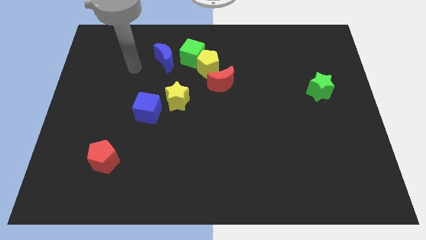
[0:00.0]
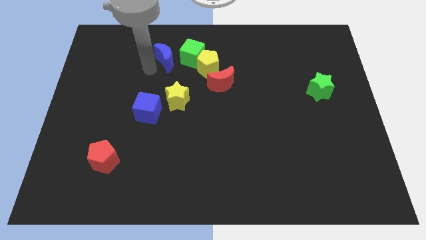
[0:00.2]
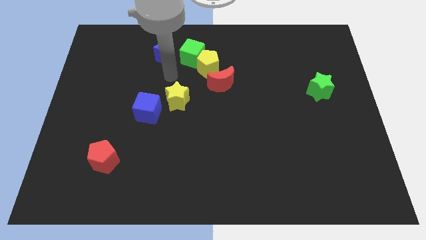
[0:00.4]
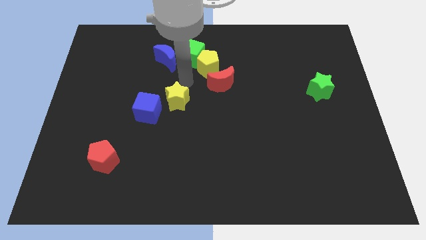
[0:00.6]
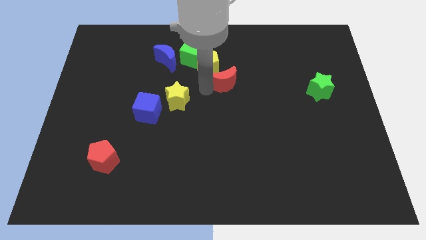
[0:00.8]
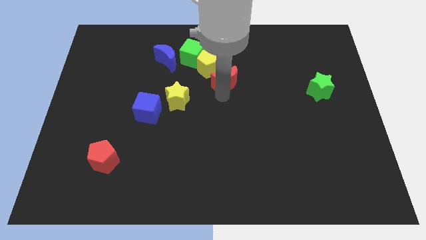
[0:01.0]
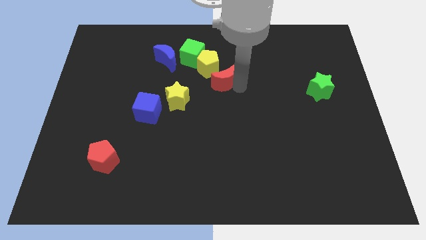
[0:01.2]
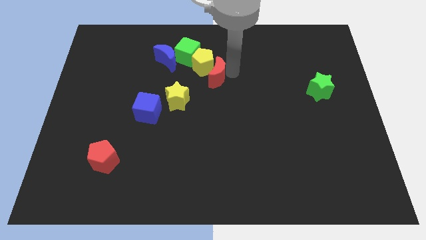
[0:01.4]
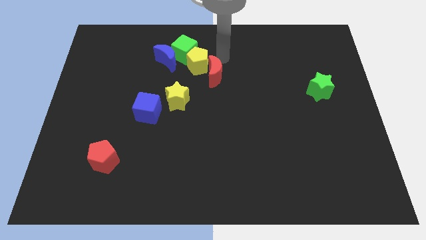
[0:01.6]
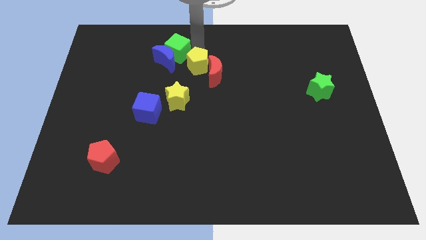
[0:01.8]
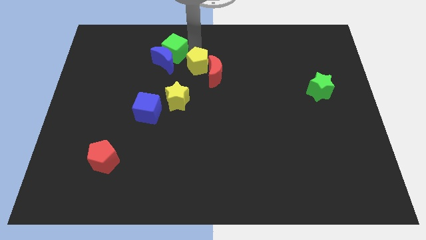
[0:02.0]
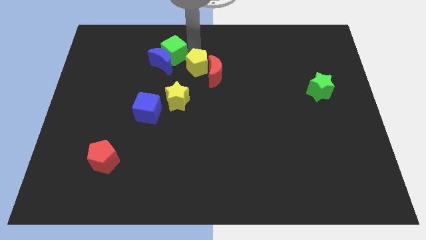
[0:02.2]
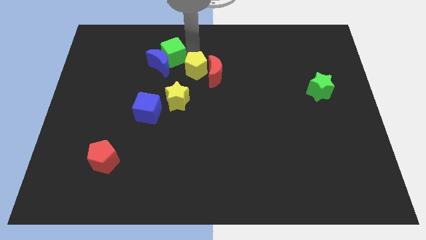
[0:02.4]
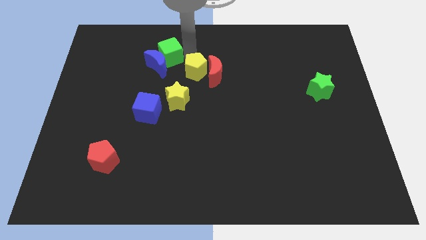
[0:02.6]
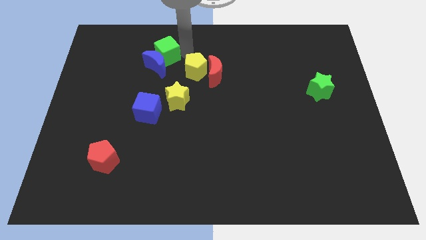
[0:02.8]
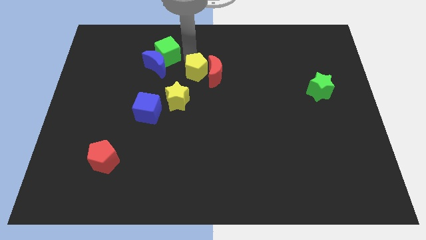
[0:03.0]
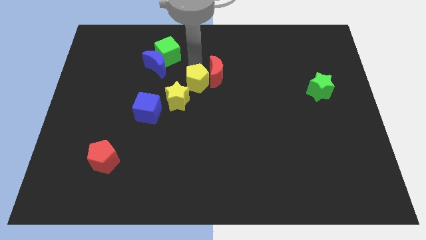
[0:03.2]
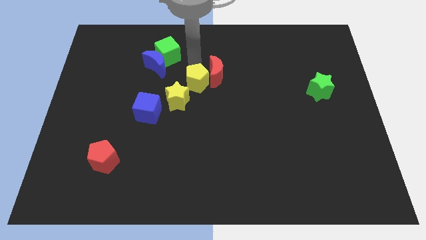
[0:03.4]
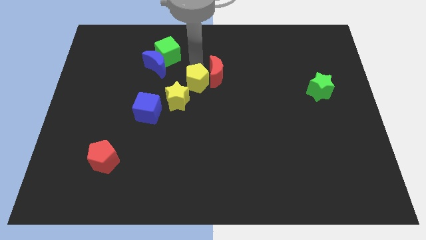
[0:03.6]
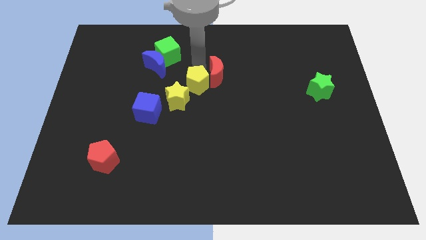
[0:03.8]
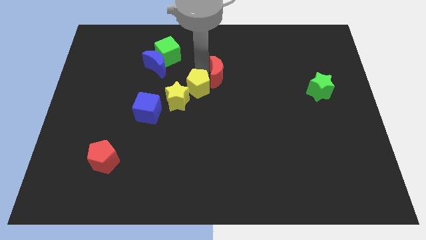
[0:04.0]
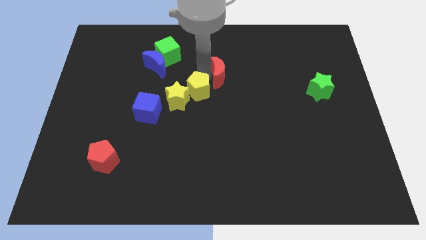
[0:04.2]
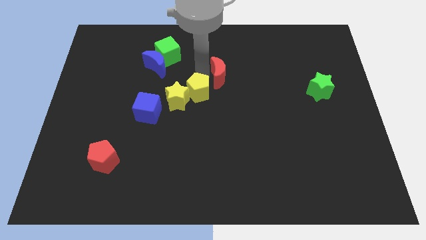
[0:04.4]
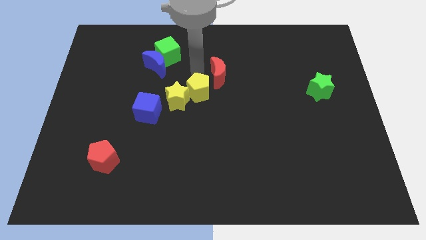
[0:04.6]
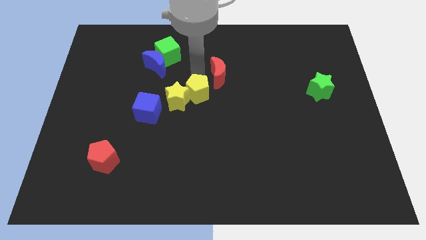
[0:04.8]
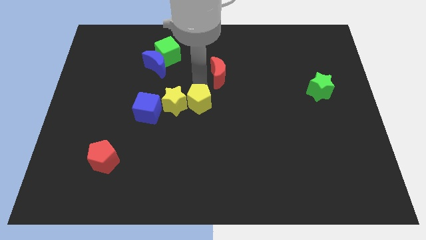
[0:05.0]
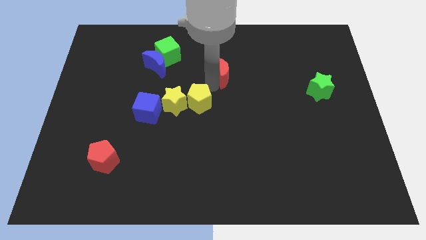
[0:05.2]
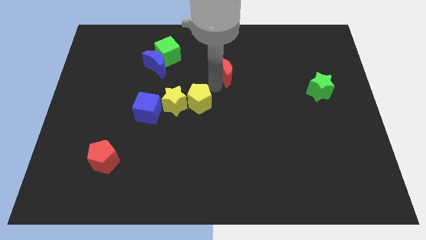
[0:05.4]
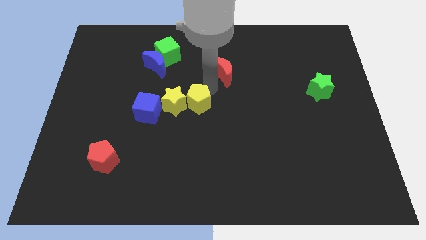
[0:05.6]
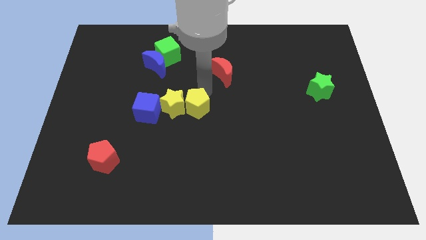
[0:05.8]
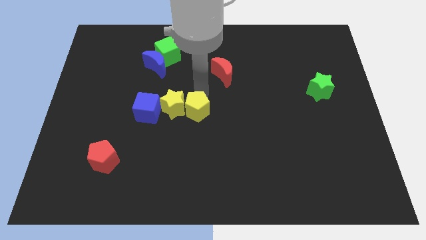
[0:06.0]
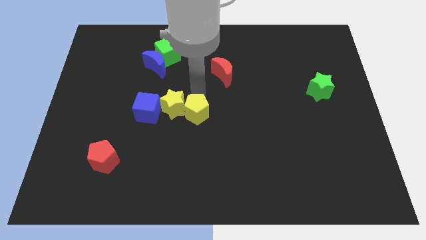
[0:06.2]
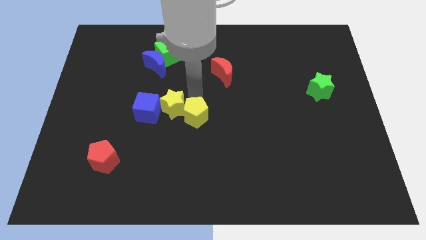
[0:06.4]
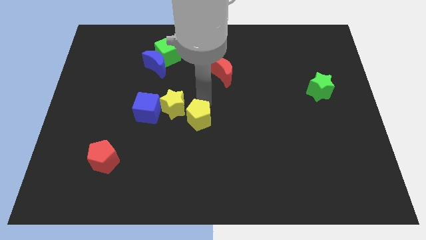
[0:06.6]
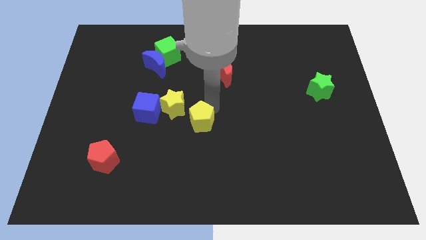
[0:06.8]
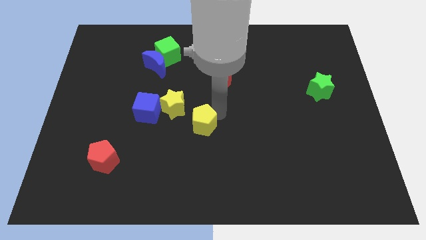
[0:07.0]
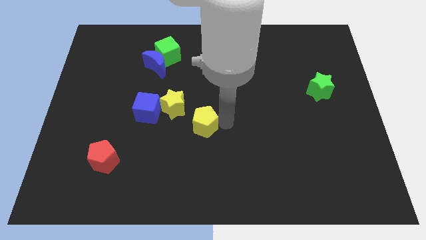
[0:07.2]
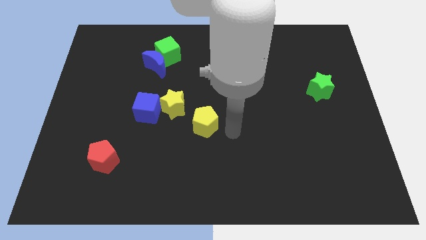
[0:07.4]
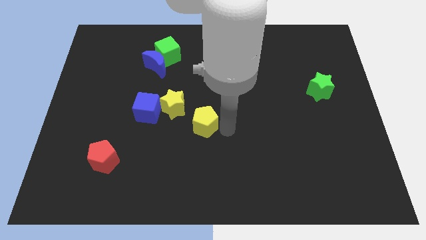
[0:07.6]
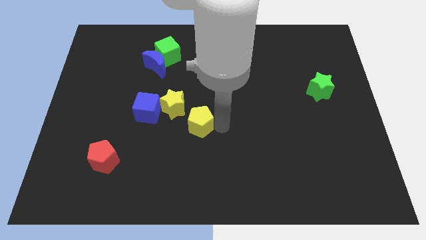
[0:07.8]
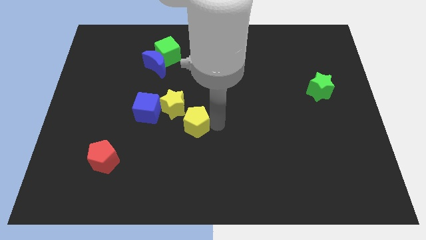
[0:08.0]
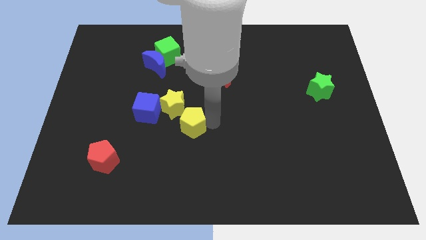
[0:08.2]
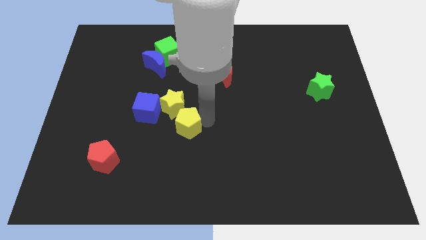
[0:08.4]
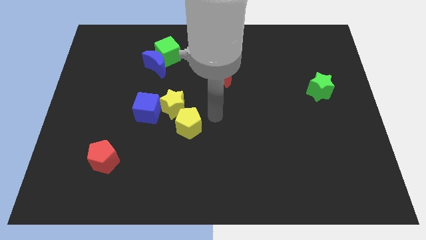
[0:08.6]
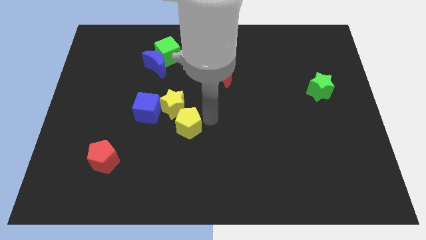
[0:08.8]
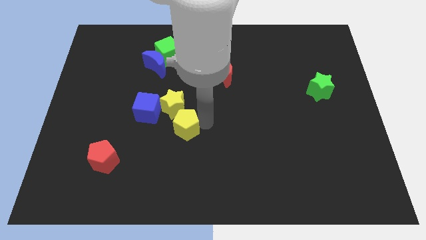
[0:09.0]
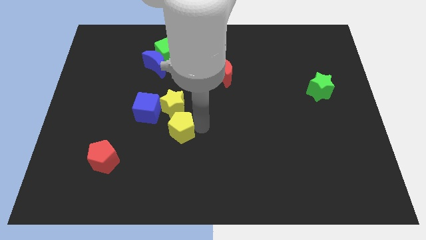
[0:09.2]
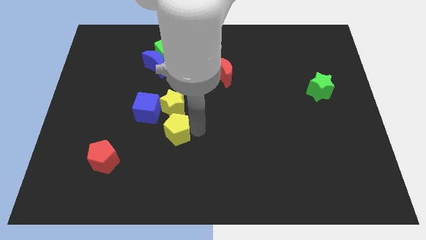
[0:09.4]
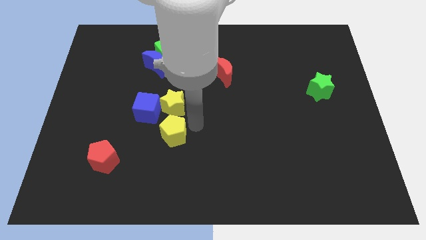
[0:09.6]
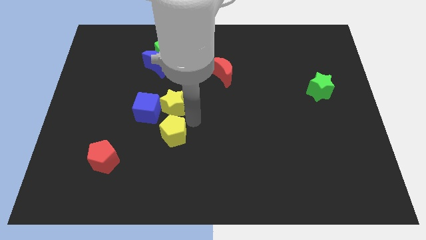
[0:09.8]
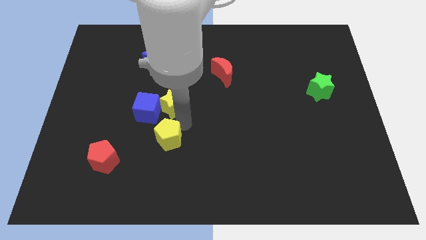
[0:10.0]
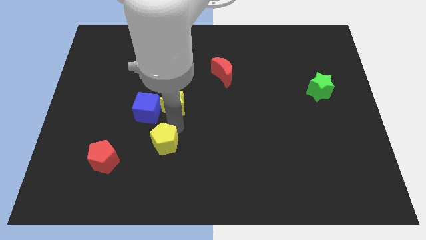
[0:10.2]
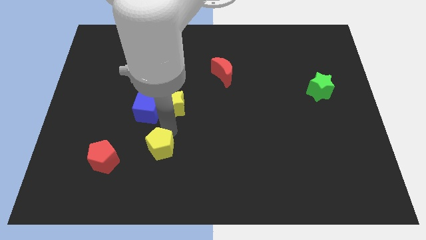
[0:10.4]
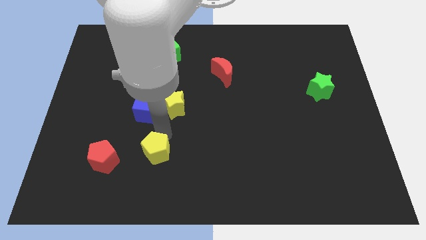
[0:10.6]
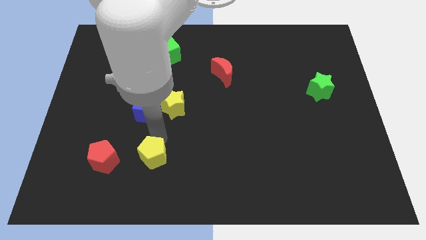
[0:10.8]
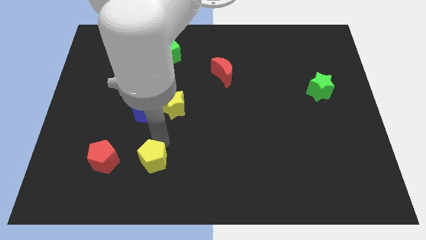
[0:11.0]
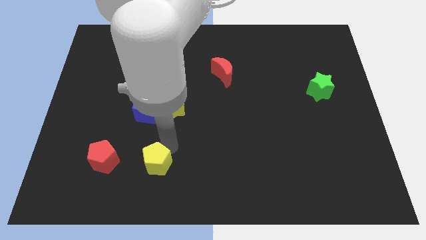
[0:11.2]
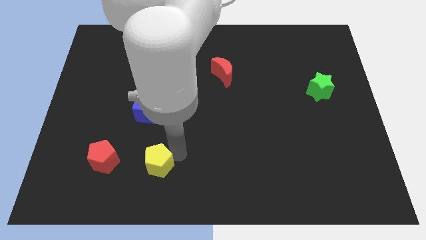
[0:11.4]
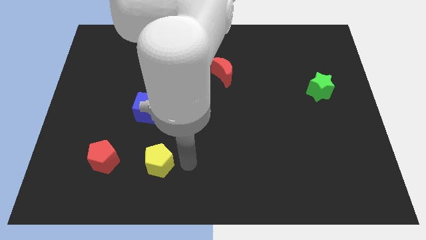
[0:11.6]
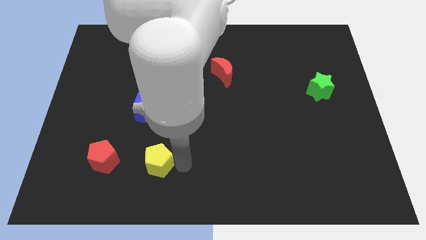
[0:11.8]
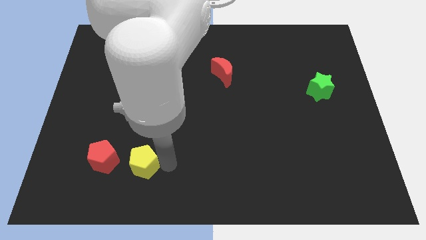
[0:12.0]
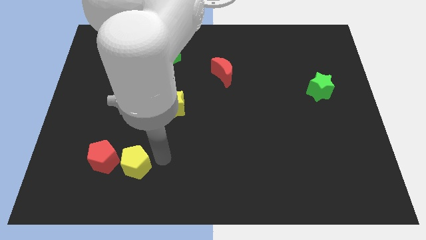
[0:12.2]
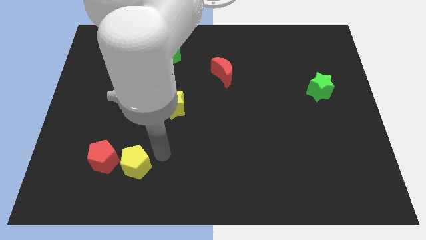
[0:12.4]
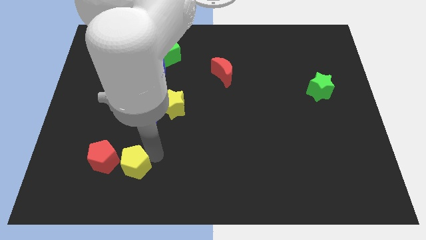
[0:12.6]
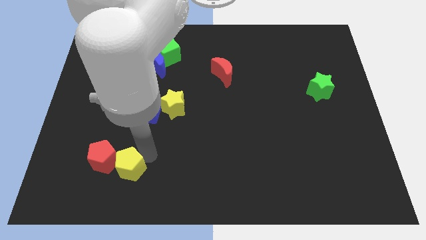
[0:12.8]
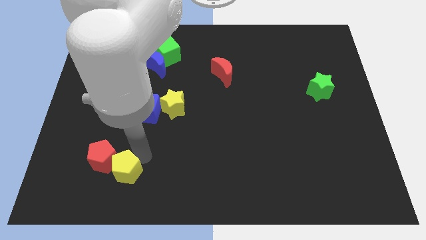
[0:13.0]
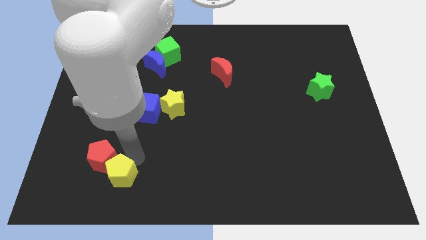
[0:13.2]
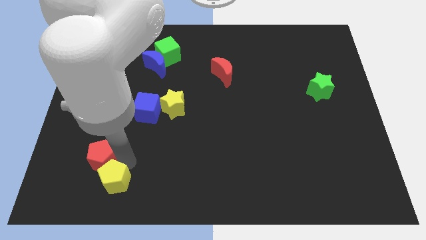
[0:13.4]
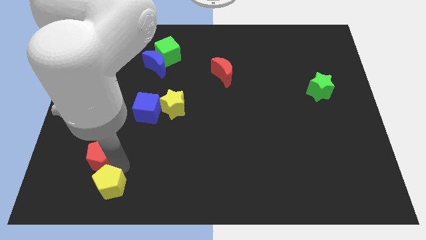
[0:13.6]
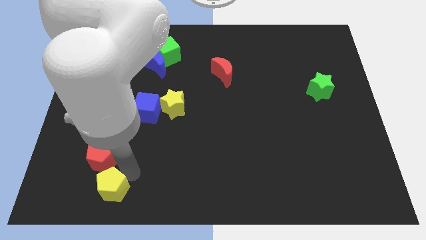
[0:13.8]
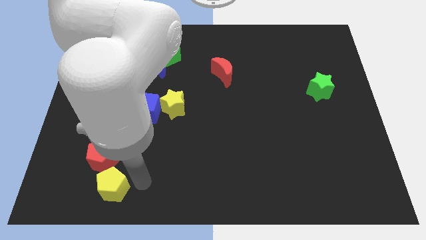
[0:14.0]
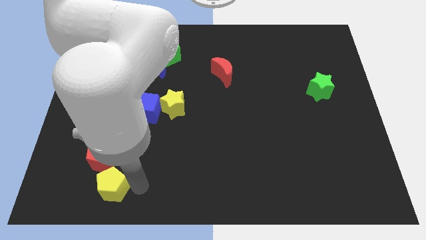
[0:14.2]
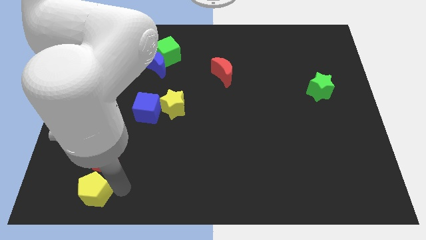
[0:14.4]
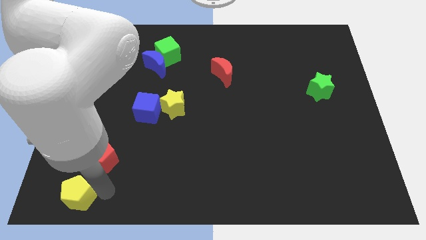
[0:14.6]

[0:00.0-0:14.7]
slide the yellow pentagon to the bottom left
